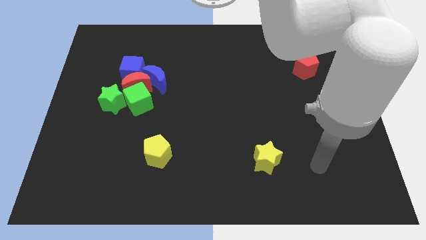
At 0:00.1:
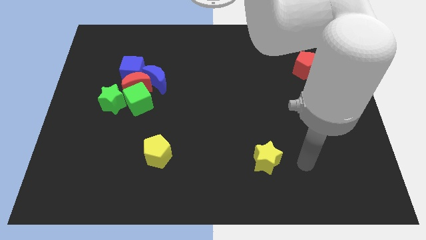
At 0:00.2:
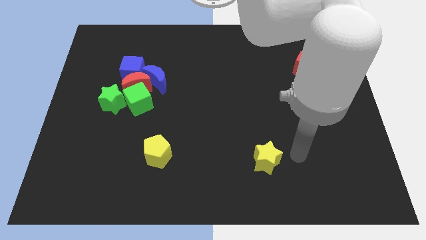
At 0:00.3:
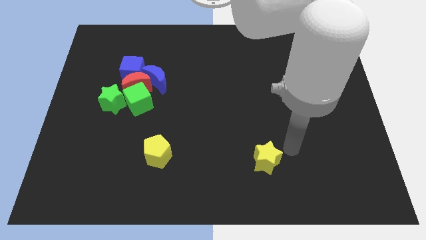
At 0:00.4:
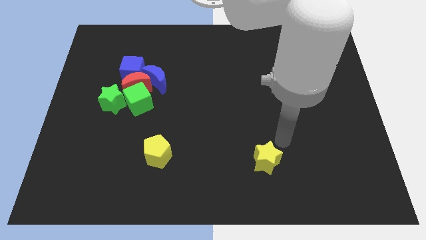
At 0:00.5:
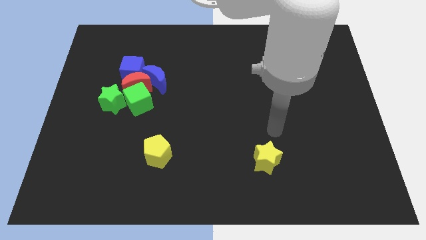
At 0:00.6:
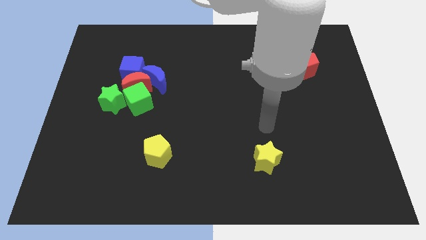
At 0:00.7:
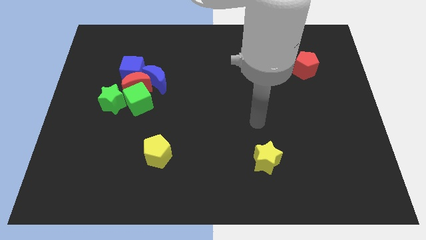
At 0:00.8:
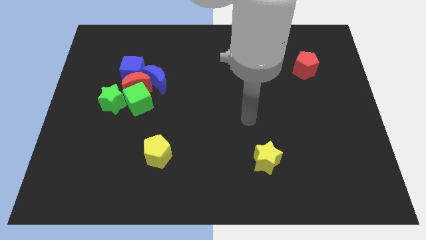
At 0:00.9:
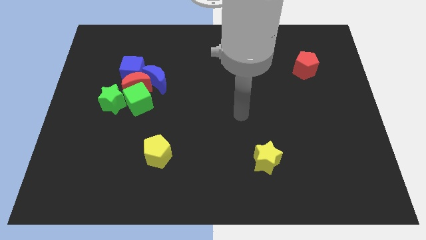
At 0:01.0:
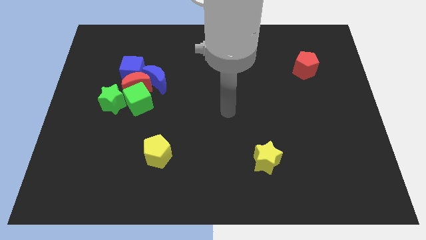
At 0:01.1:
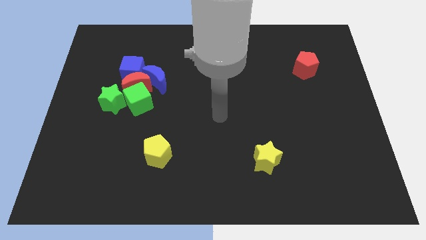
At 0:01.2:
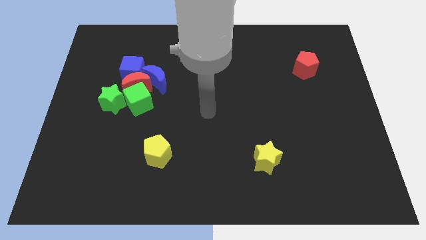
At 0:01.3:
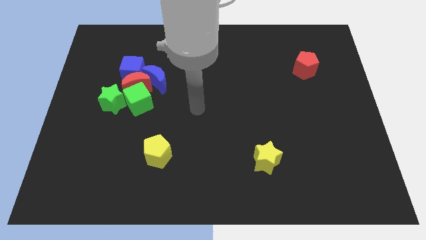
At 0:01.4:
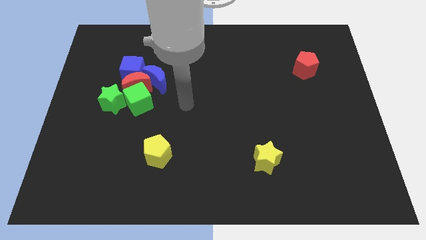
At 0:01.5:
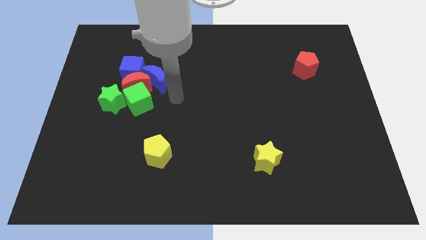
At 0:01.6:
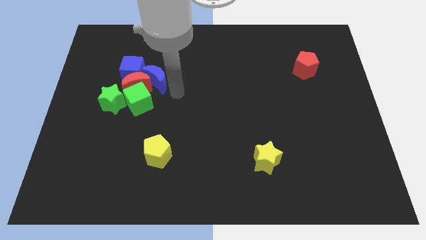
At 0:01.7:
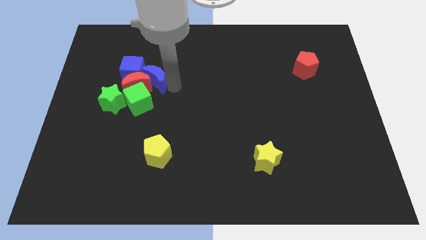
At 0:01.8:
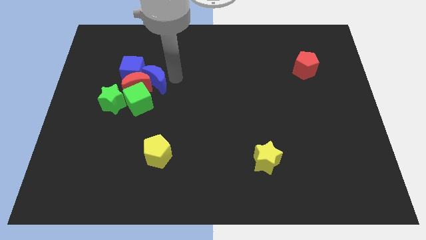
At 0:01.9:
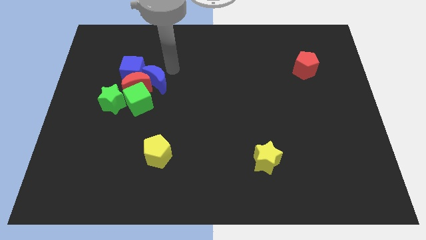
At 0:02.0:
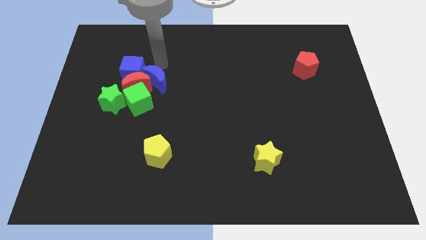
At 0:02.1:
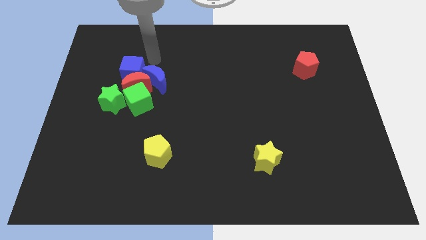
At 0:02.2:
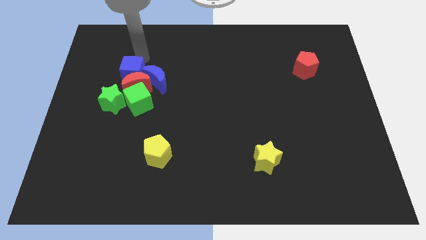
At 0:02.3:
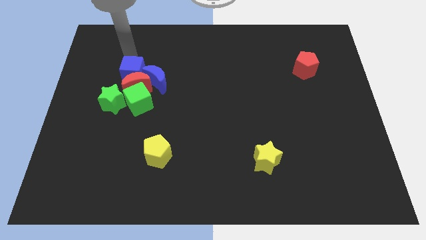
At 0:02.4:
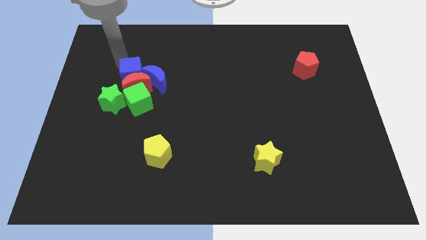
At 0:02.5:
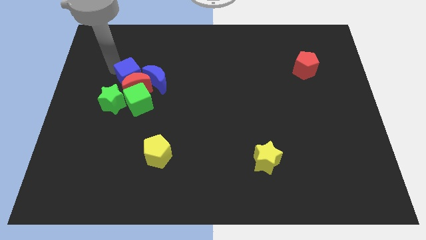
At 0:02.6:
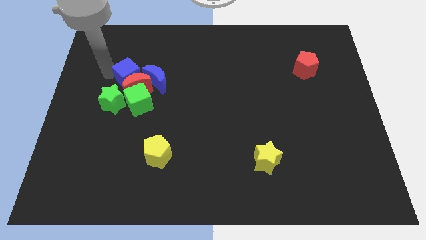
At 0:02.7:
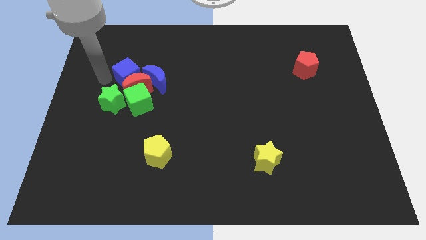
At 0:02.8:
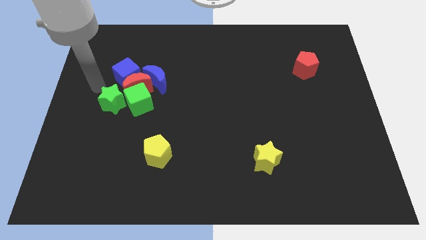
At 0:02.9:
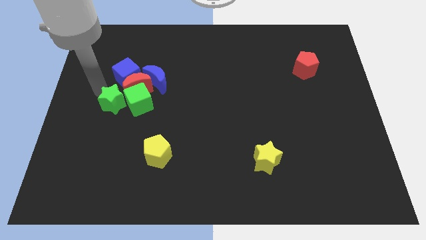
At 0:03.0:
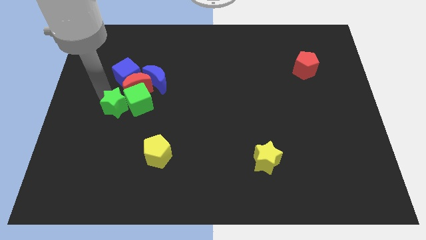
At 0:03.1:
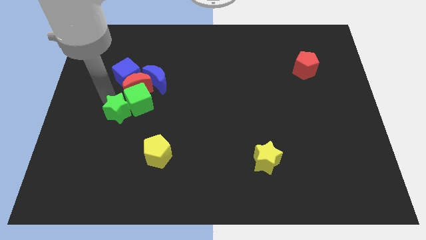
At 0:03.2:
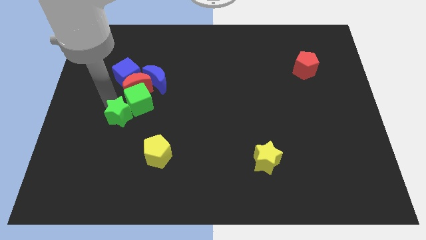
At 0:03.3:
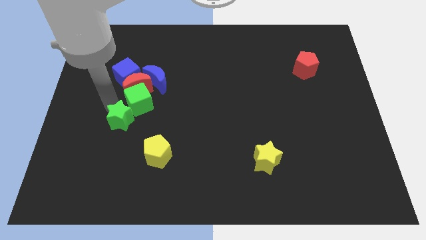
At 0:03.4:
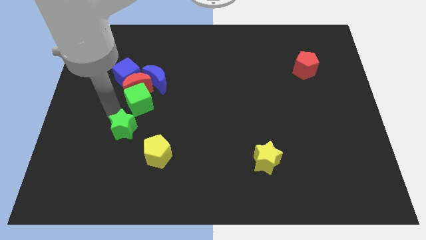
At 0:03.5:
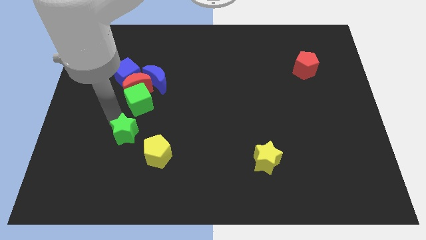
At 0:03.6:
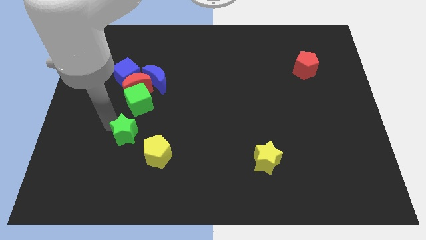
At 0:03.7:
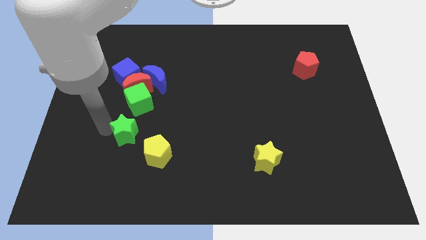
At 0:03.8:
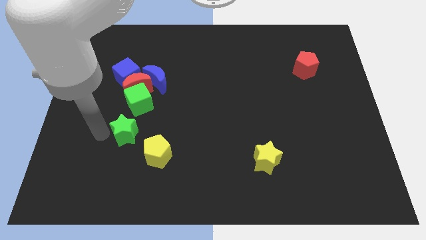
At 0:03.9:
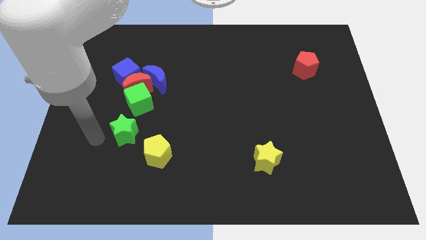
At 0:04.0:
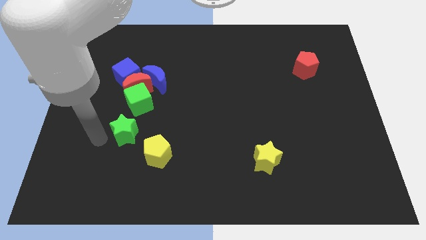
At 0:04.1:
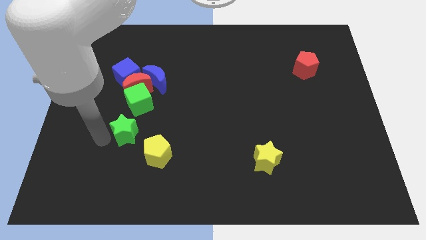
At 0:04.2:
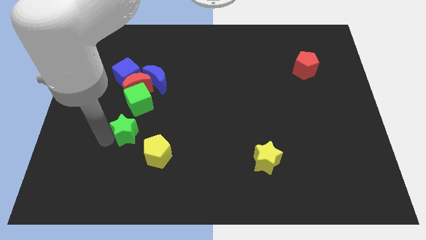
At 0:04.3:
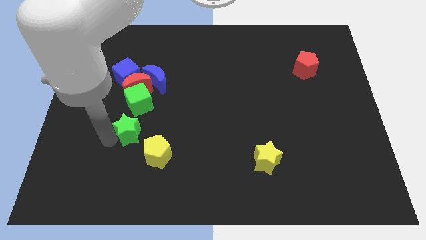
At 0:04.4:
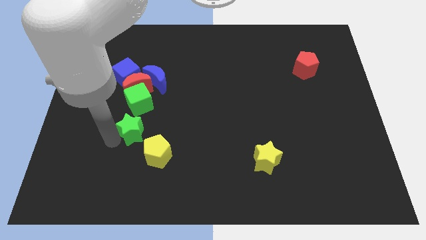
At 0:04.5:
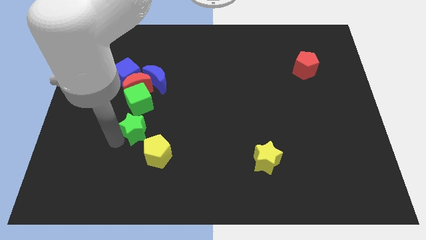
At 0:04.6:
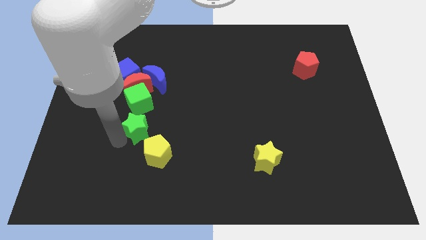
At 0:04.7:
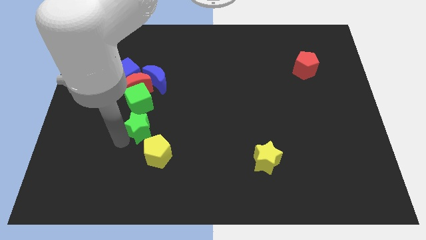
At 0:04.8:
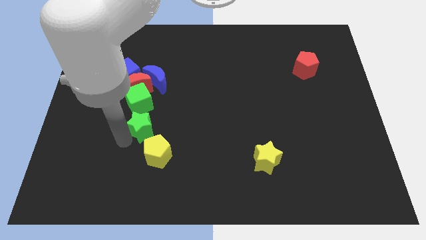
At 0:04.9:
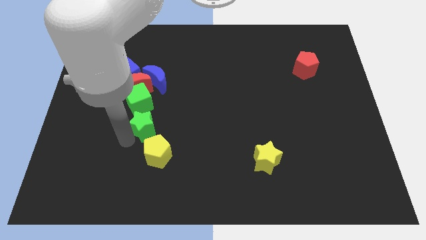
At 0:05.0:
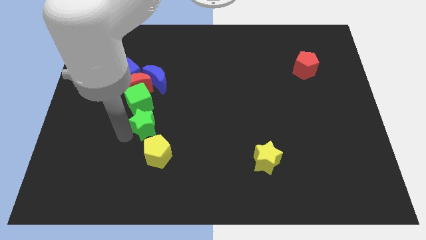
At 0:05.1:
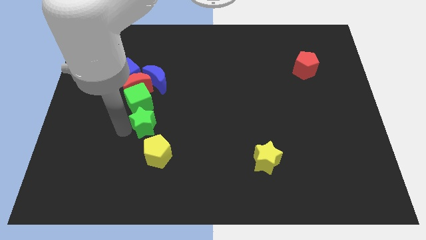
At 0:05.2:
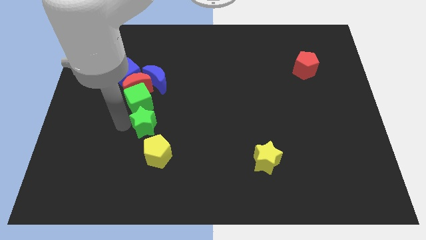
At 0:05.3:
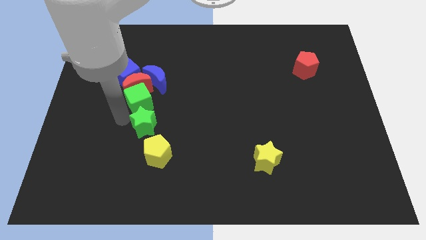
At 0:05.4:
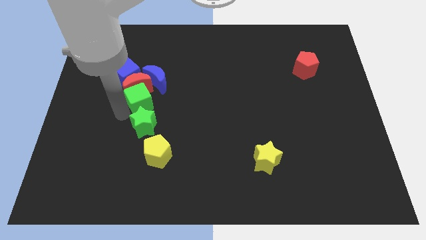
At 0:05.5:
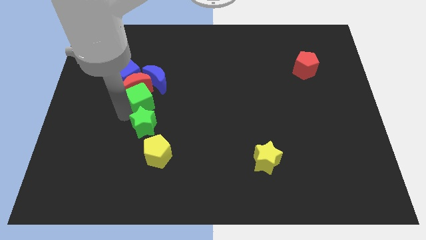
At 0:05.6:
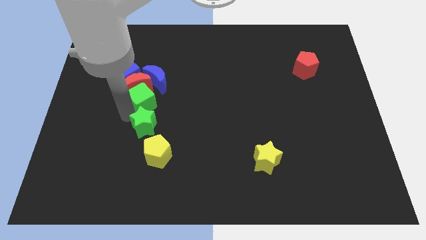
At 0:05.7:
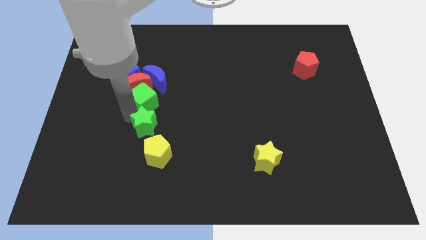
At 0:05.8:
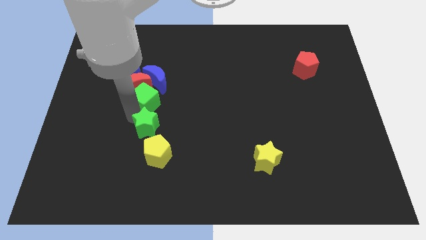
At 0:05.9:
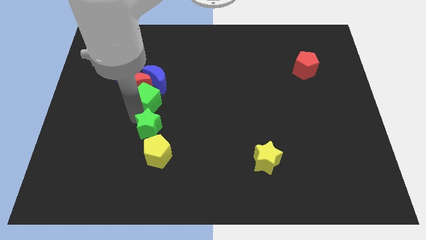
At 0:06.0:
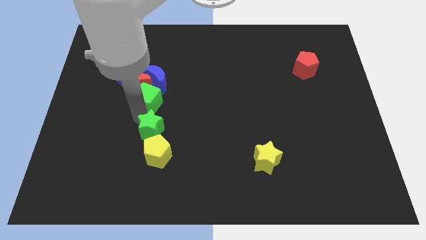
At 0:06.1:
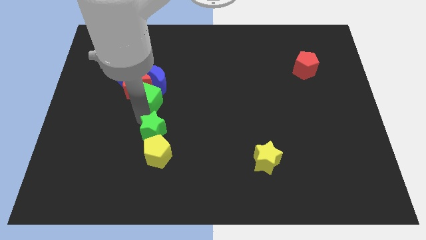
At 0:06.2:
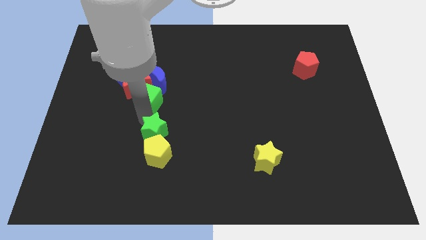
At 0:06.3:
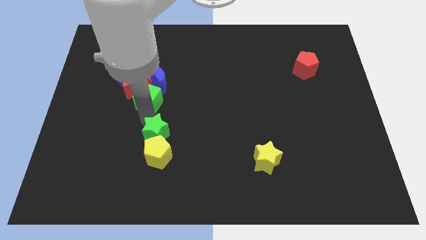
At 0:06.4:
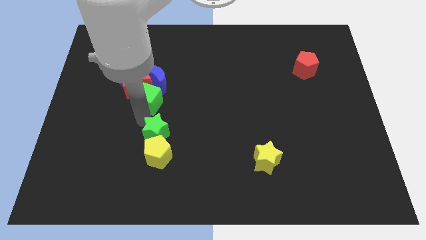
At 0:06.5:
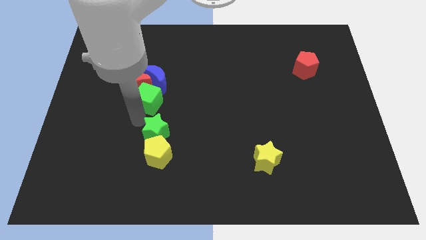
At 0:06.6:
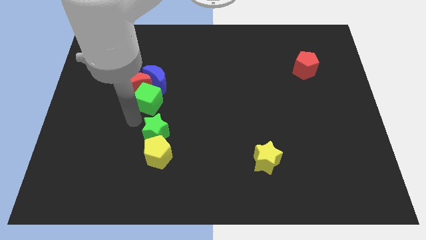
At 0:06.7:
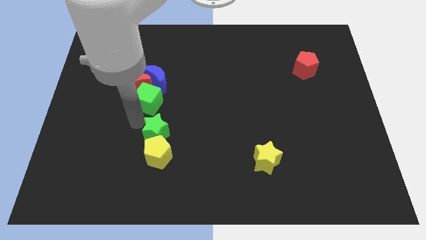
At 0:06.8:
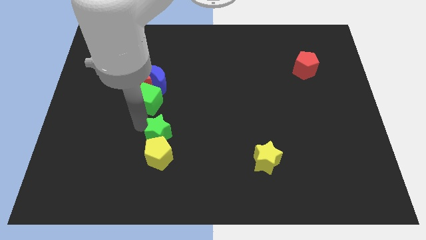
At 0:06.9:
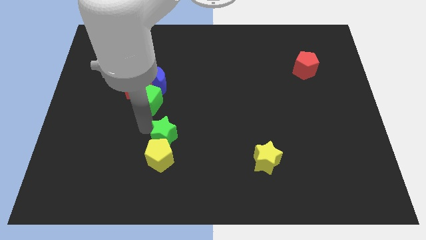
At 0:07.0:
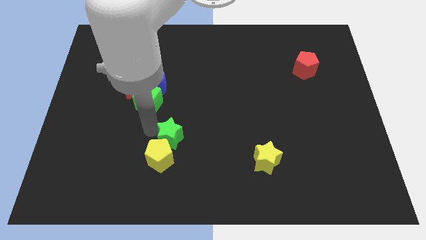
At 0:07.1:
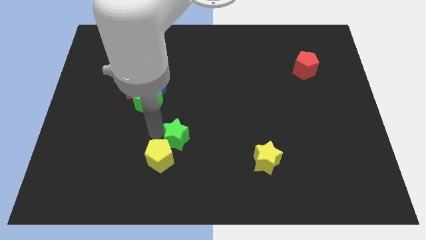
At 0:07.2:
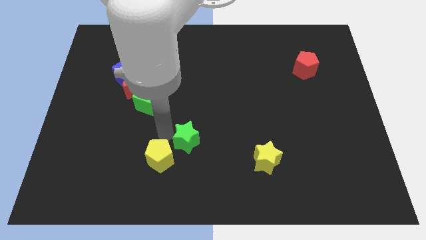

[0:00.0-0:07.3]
move the green star right of the yellow pentagon

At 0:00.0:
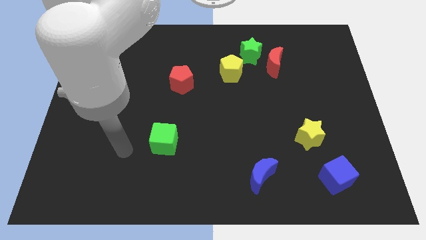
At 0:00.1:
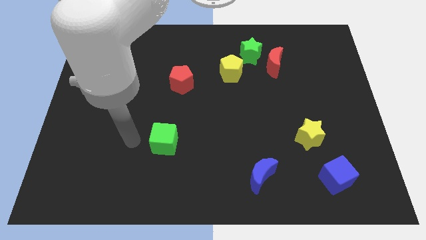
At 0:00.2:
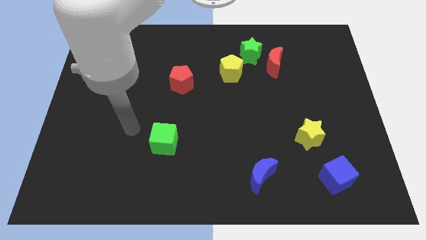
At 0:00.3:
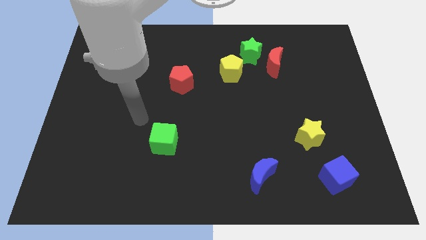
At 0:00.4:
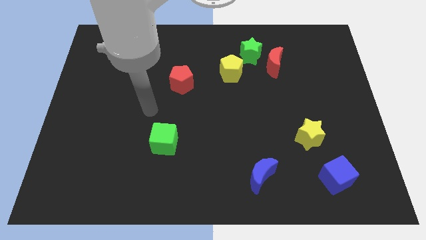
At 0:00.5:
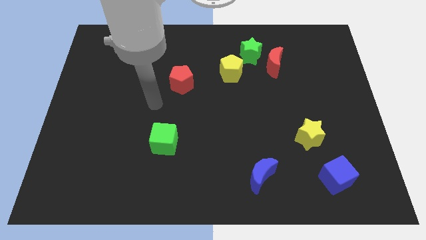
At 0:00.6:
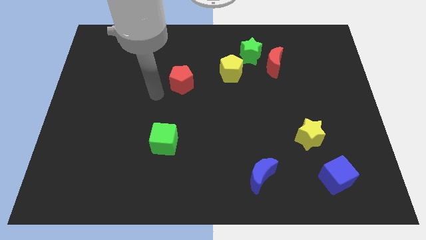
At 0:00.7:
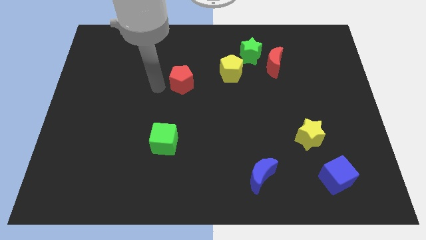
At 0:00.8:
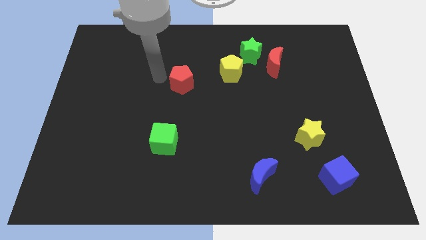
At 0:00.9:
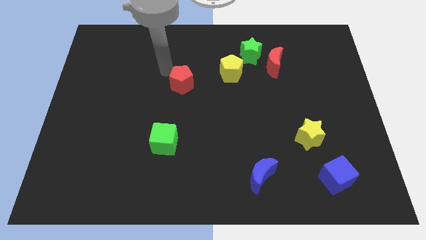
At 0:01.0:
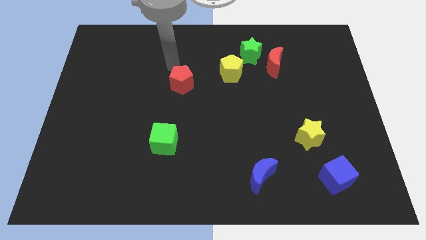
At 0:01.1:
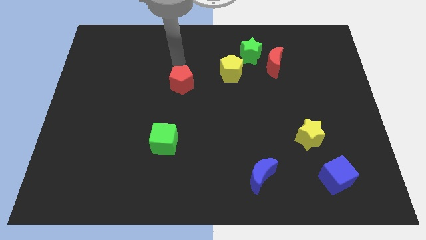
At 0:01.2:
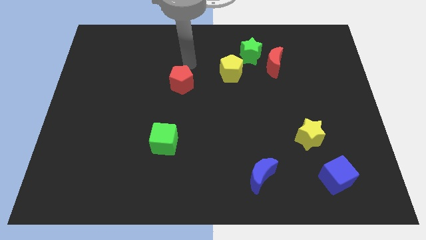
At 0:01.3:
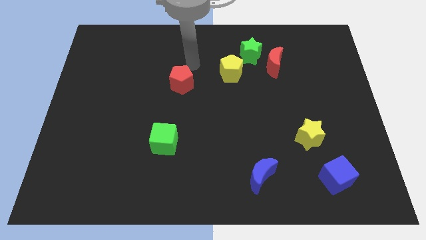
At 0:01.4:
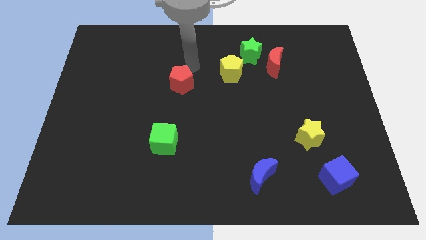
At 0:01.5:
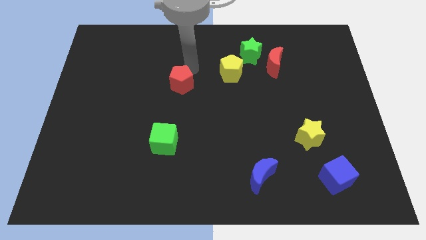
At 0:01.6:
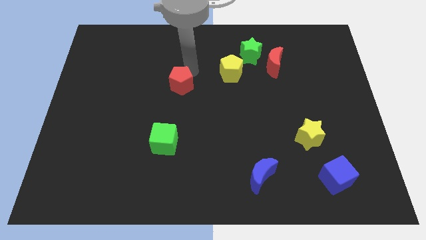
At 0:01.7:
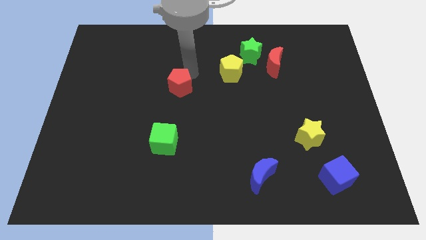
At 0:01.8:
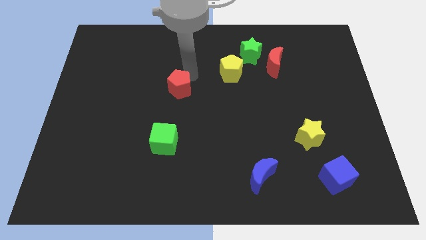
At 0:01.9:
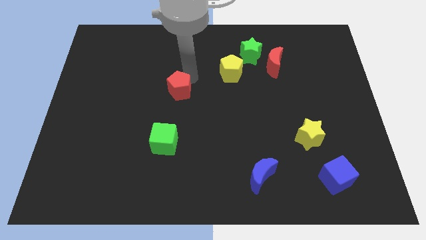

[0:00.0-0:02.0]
slide the red pentagon to the top side of the green cube
